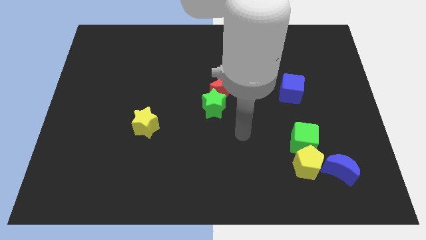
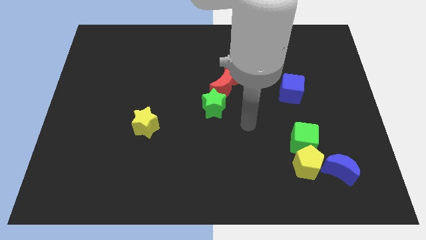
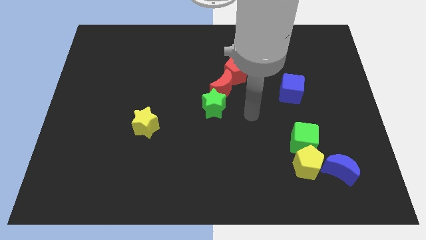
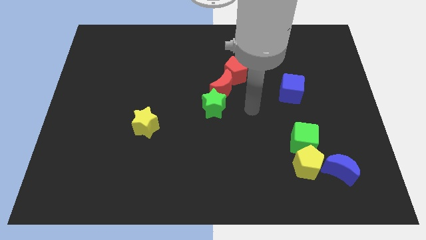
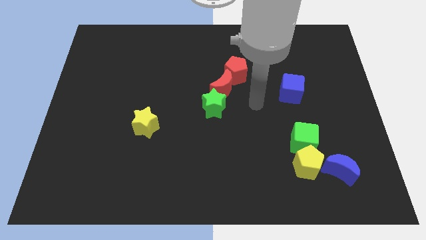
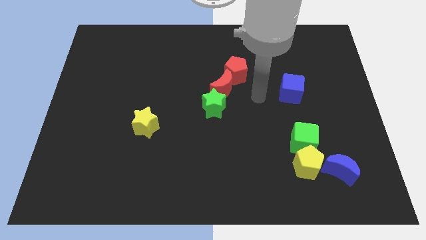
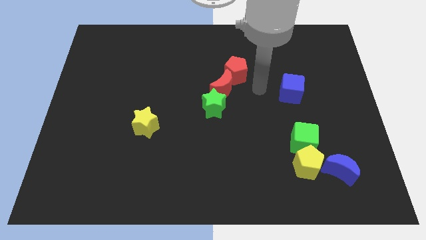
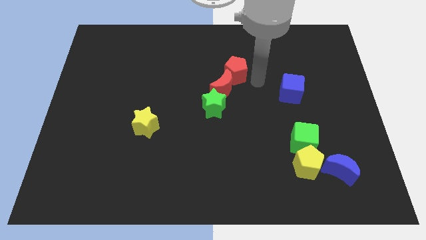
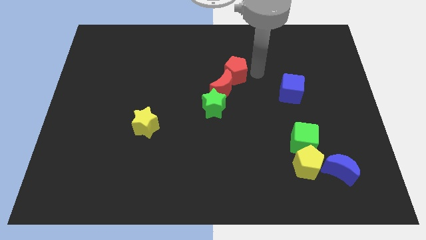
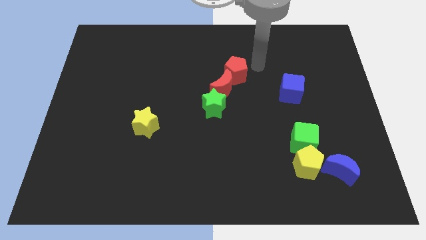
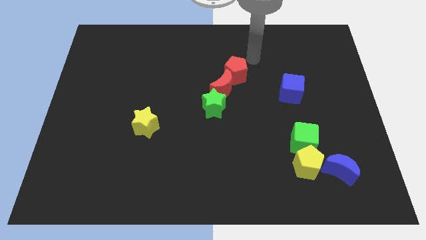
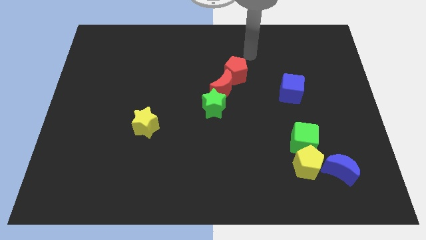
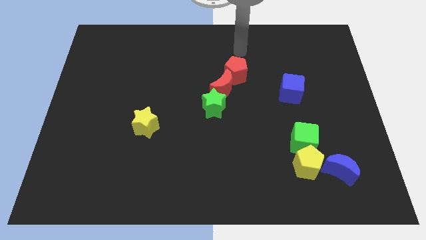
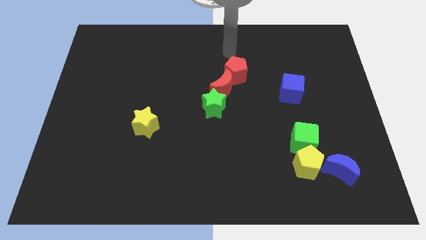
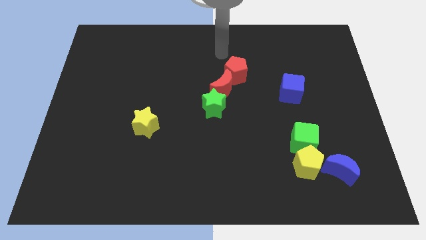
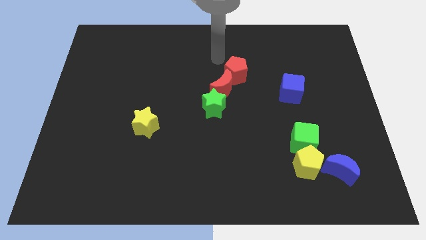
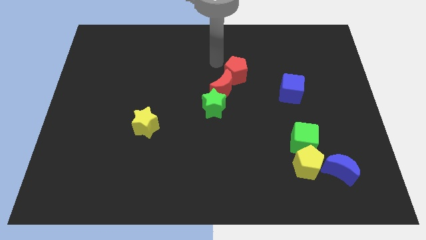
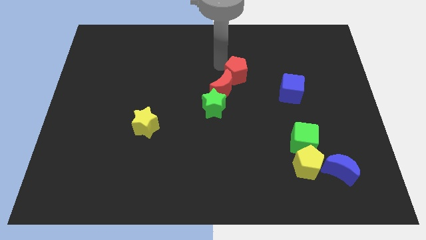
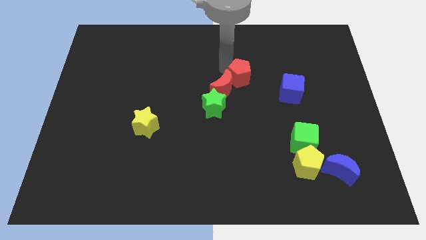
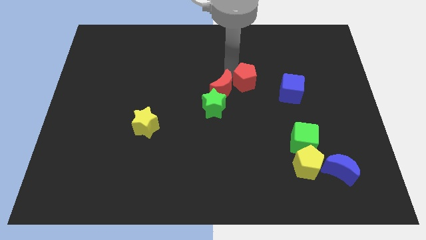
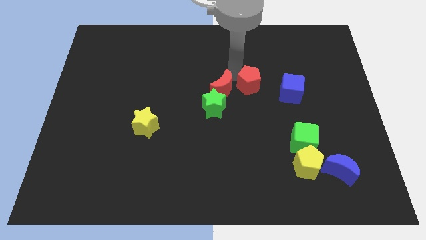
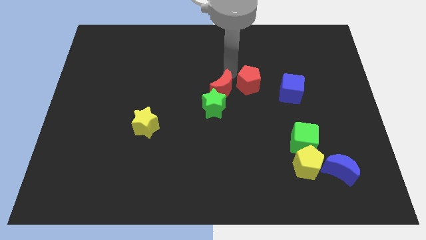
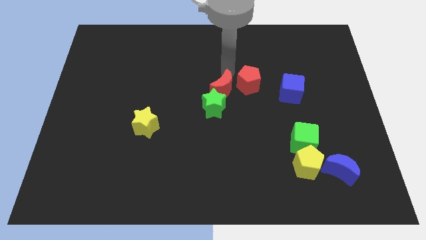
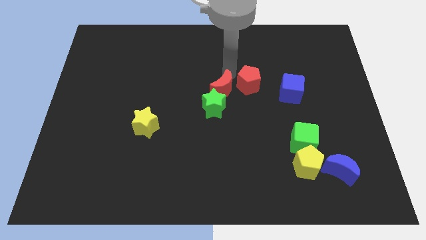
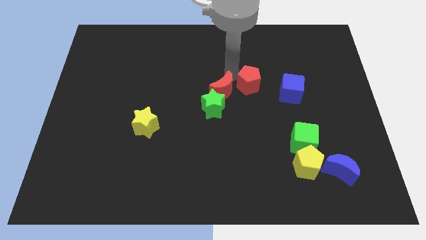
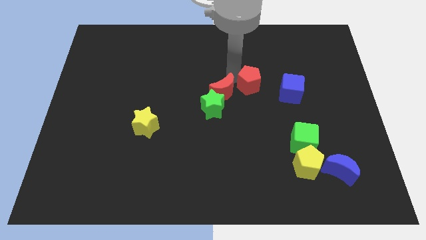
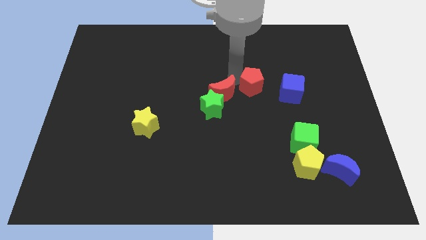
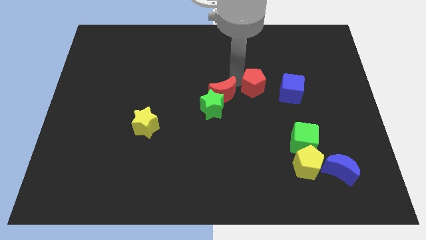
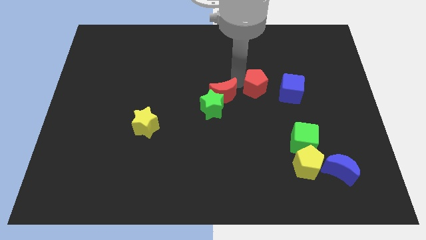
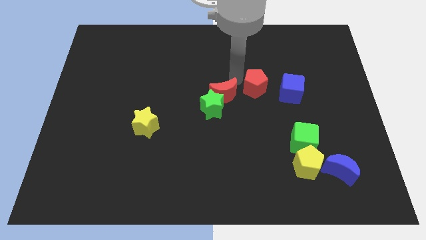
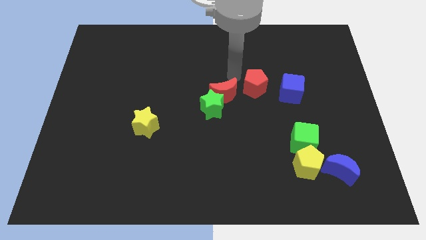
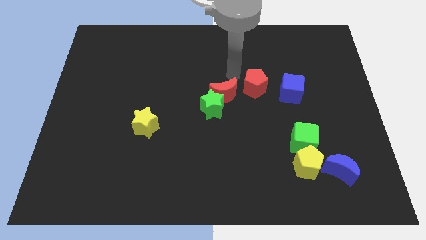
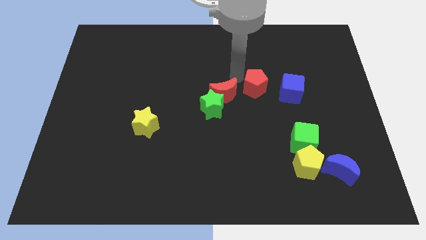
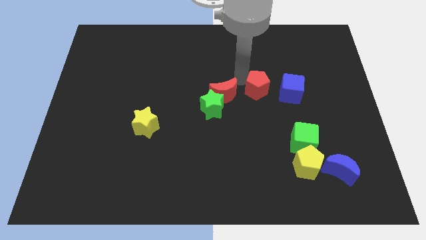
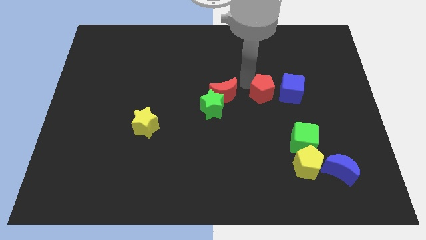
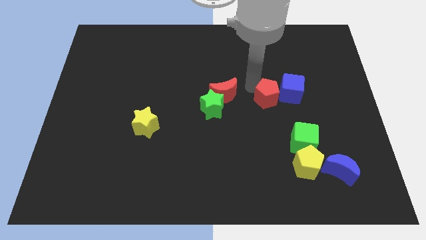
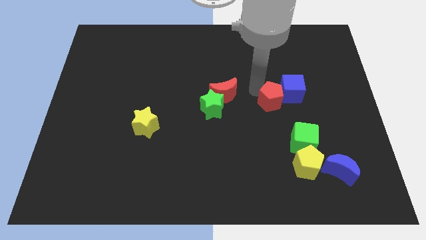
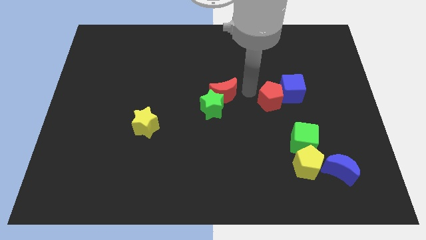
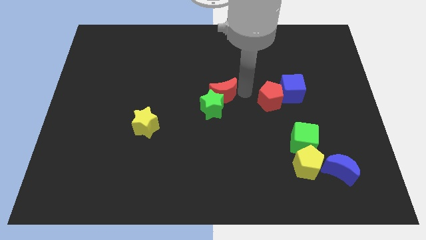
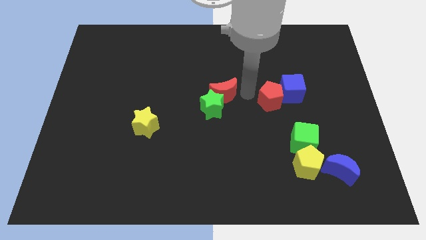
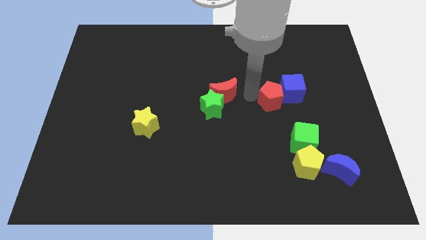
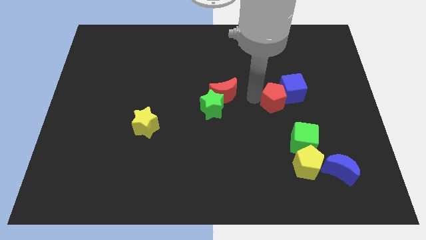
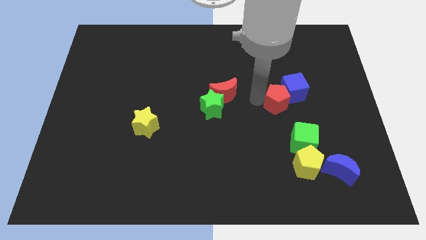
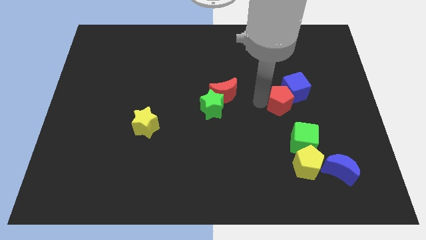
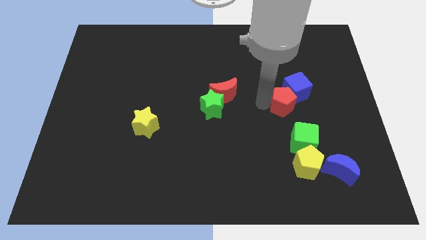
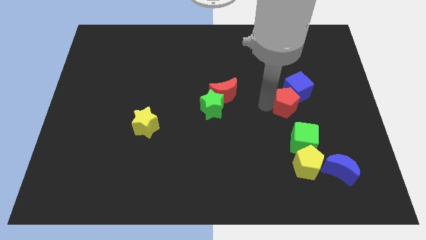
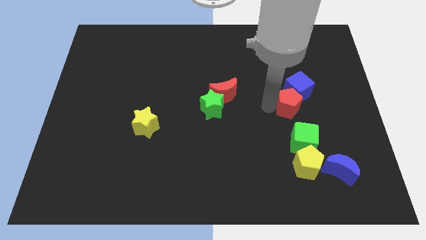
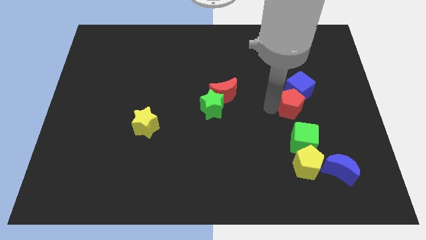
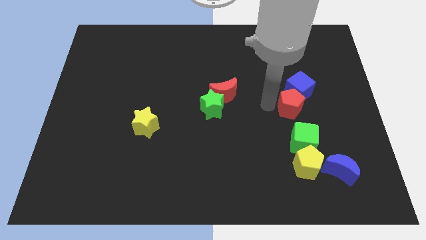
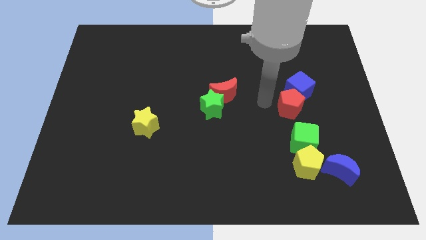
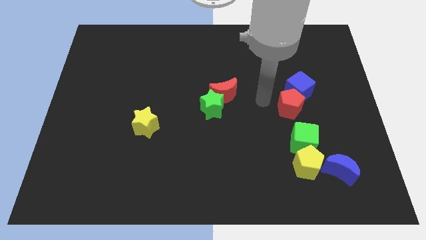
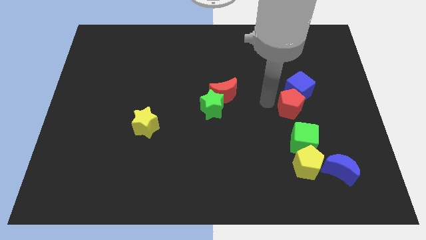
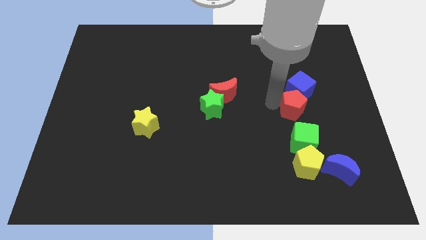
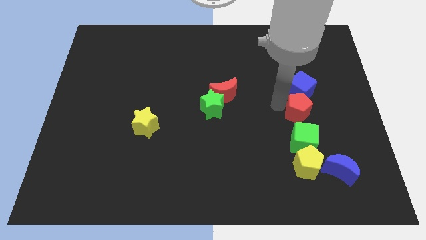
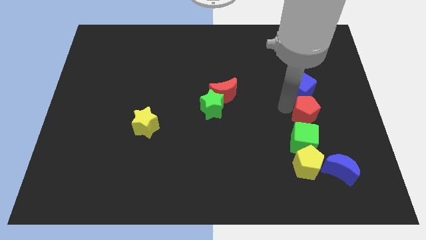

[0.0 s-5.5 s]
push the red pentagon downwards and to the right diagonally

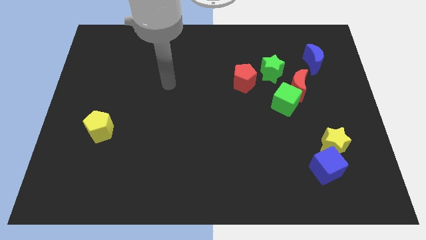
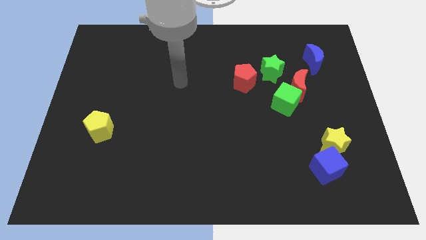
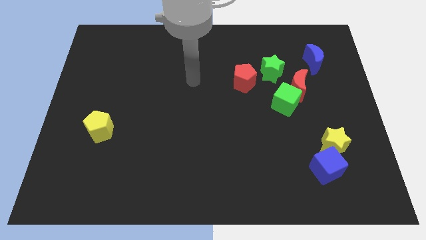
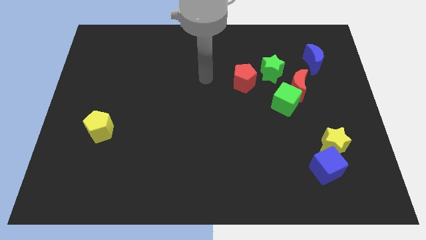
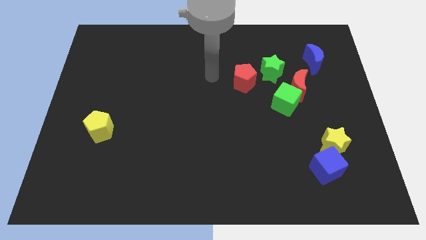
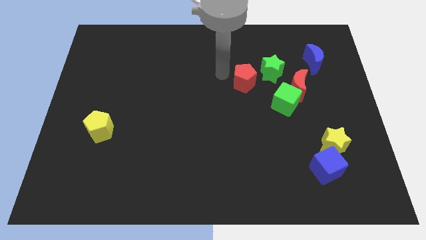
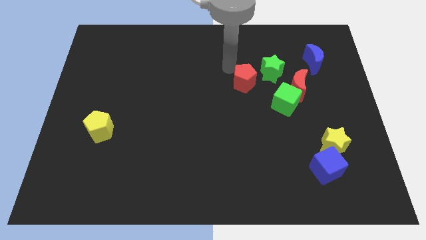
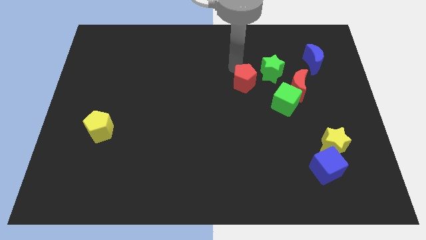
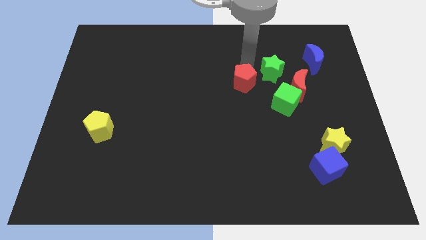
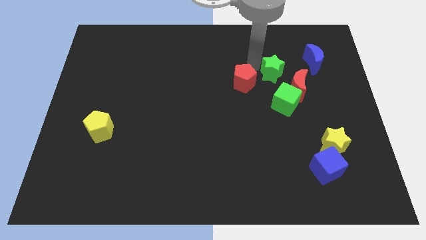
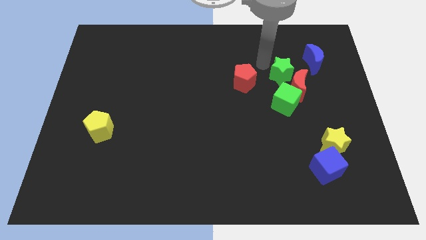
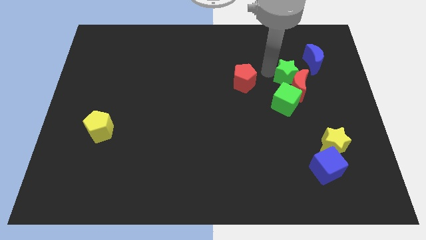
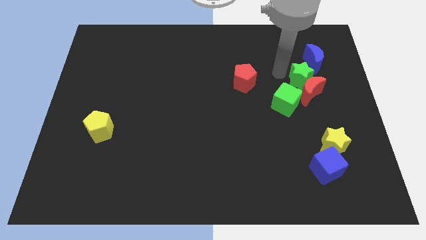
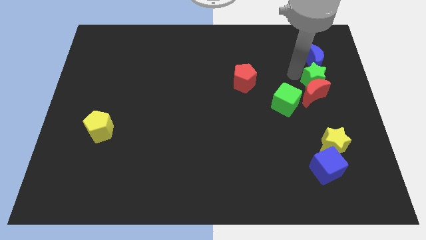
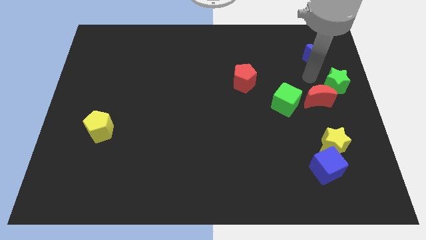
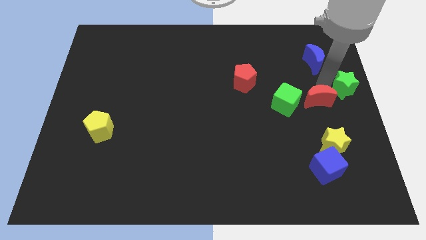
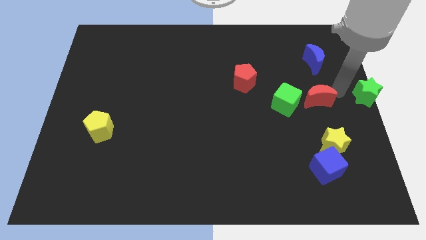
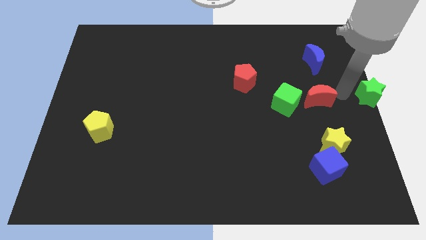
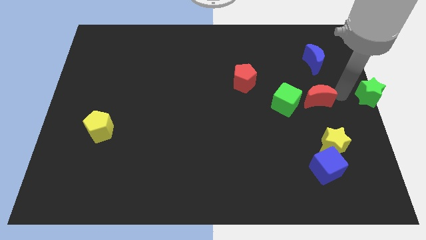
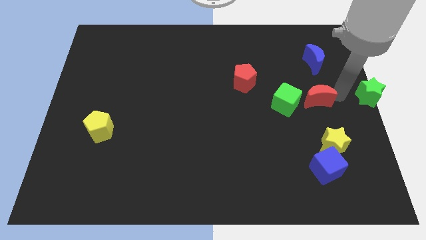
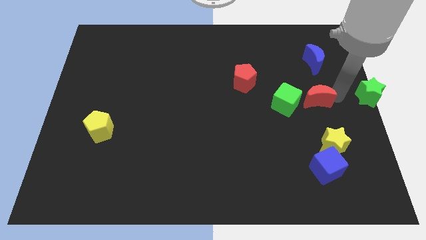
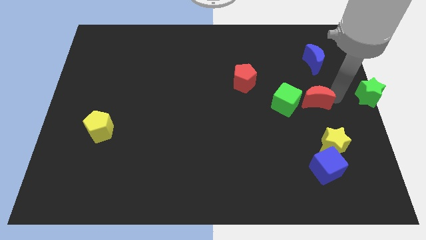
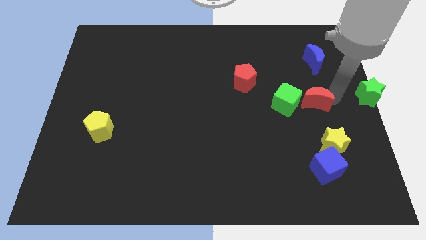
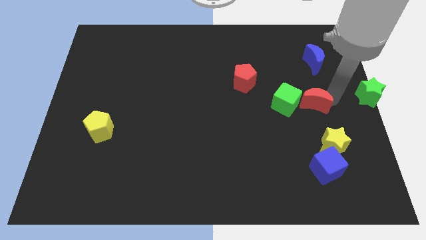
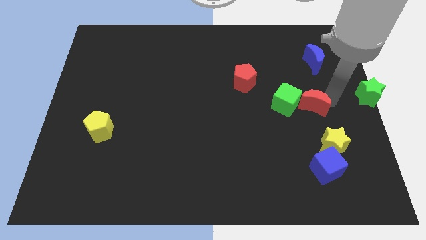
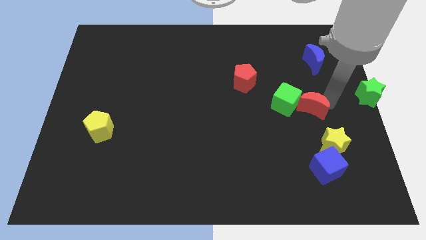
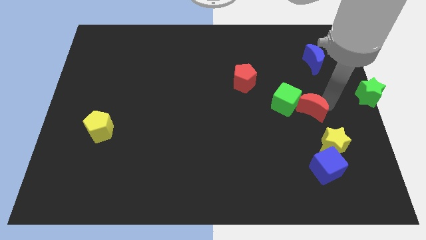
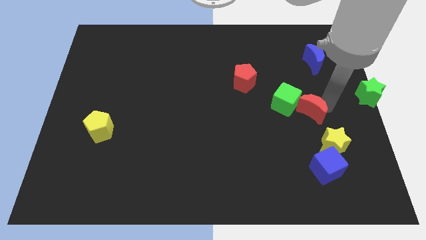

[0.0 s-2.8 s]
slightly move the red moon down
